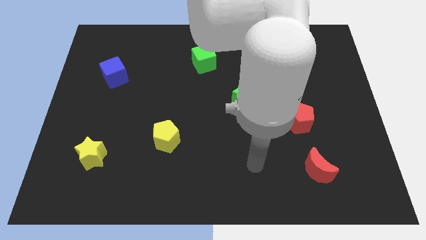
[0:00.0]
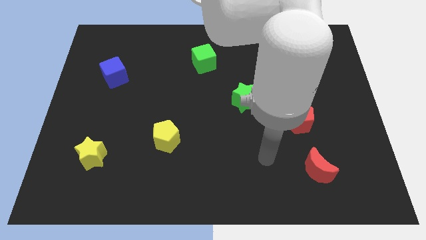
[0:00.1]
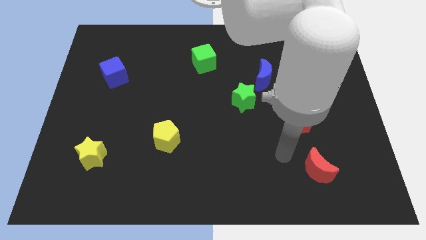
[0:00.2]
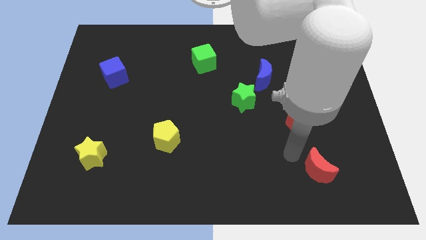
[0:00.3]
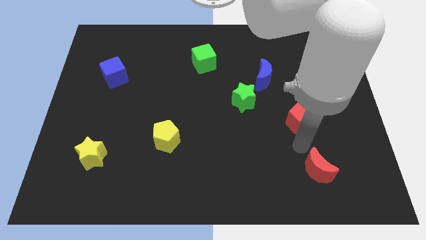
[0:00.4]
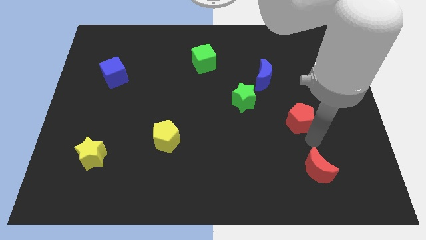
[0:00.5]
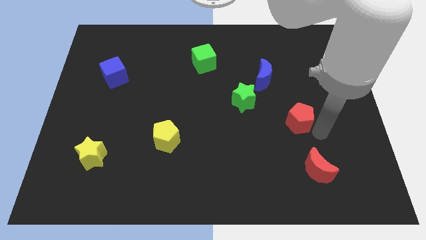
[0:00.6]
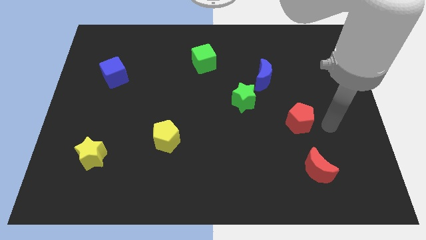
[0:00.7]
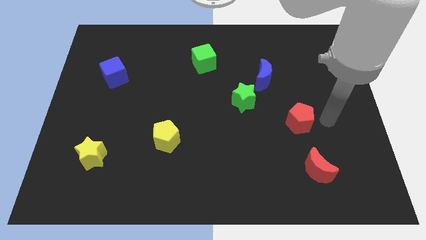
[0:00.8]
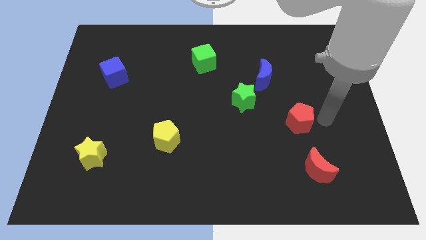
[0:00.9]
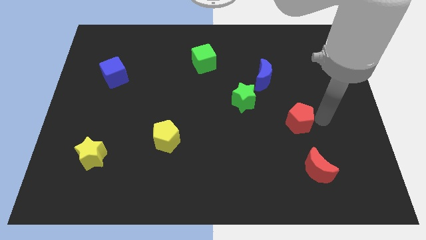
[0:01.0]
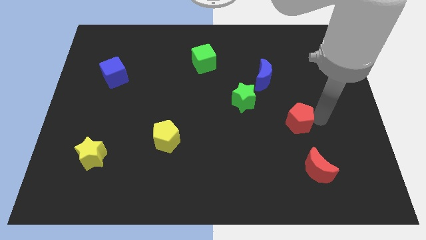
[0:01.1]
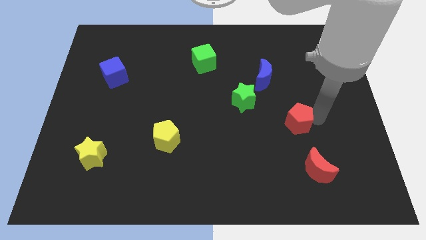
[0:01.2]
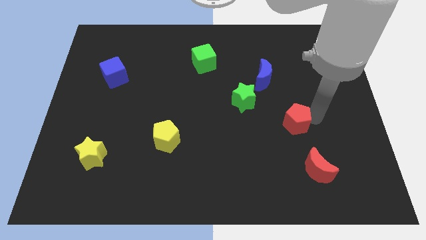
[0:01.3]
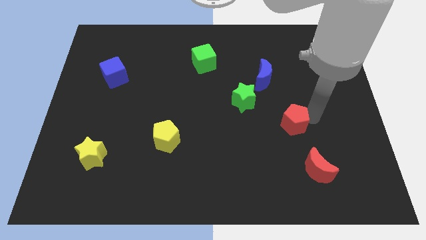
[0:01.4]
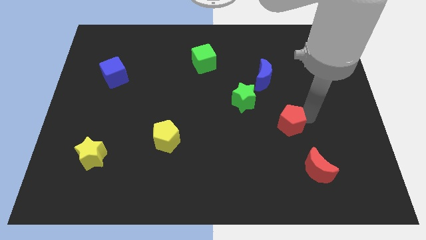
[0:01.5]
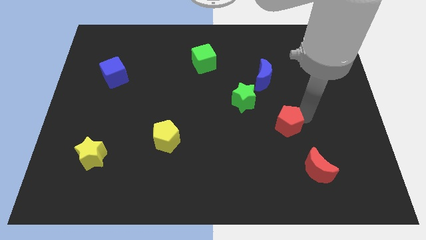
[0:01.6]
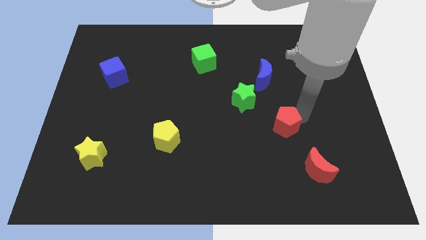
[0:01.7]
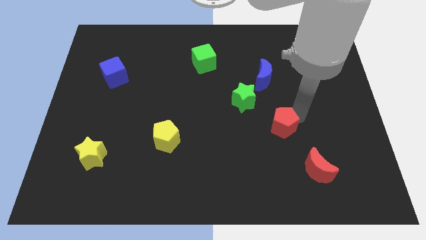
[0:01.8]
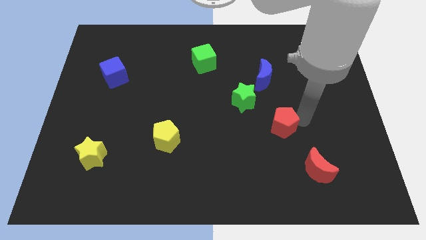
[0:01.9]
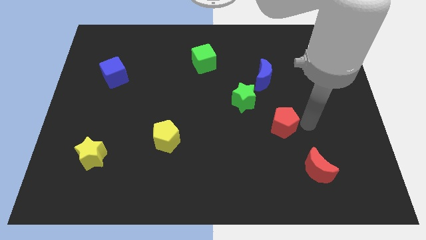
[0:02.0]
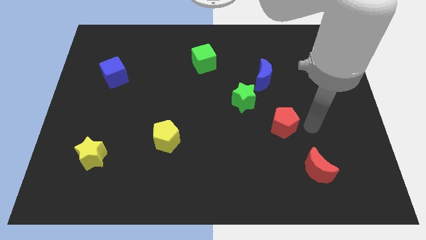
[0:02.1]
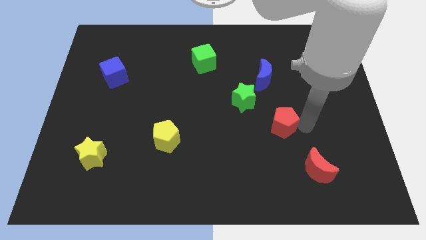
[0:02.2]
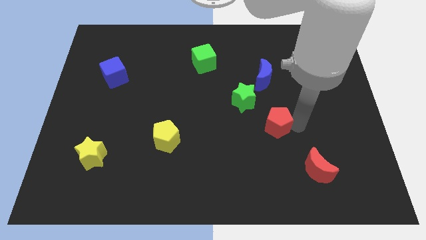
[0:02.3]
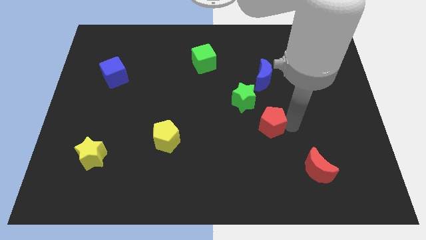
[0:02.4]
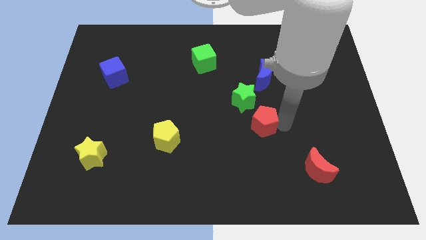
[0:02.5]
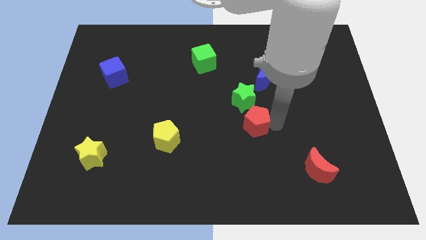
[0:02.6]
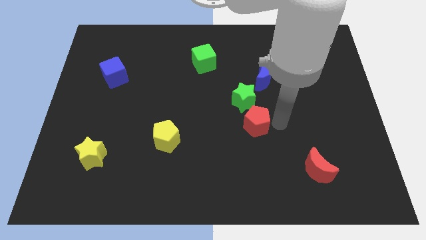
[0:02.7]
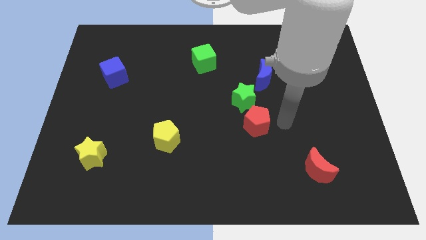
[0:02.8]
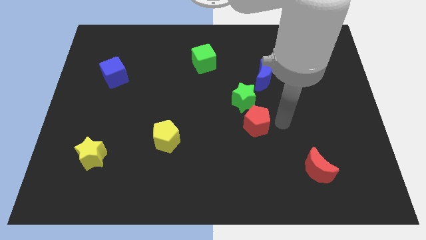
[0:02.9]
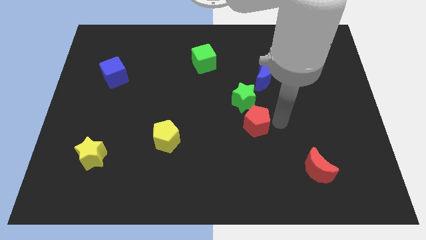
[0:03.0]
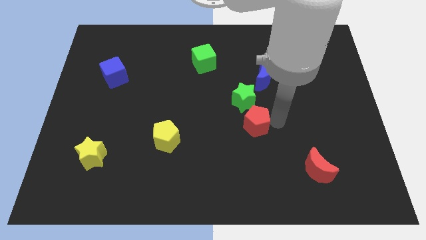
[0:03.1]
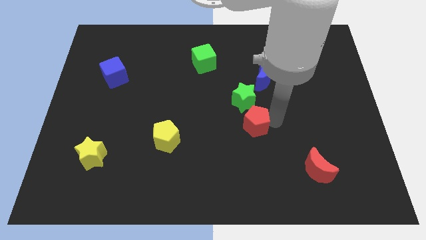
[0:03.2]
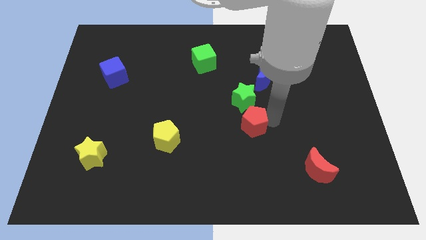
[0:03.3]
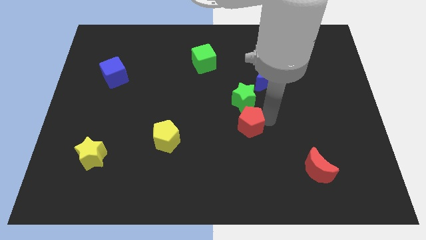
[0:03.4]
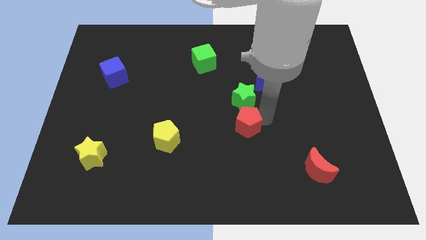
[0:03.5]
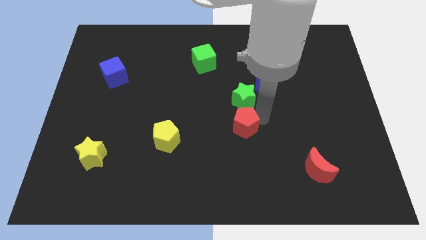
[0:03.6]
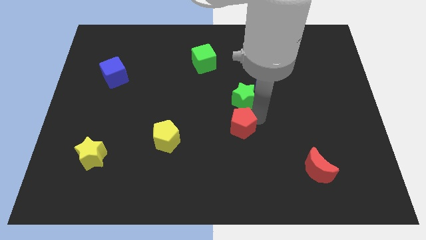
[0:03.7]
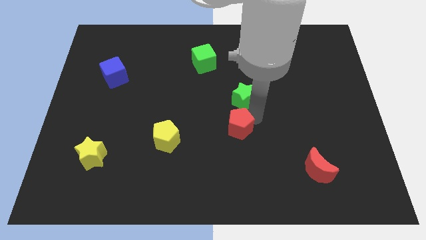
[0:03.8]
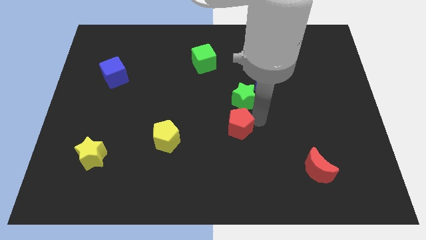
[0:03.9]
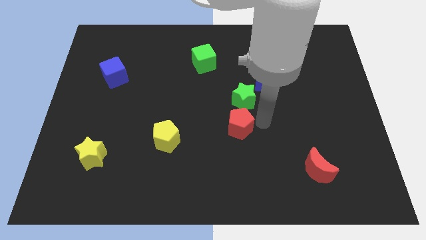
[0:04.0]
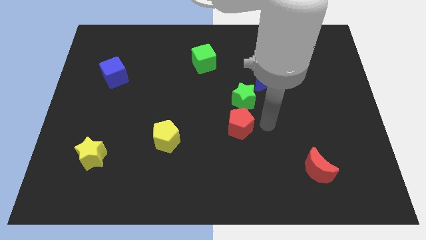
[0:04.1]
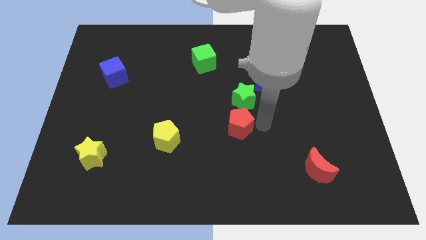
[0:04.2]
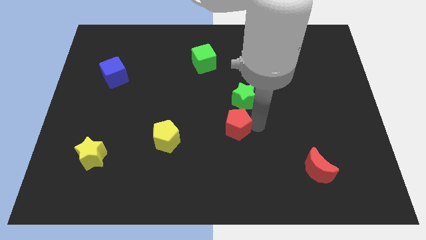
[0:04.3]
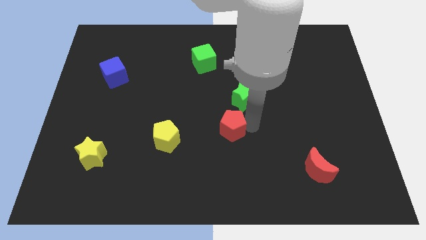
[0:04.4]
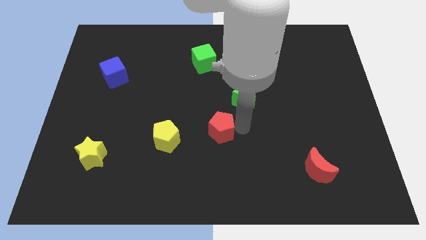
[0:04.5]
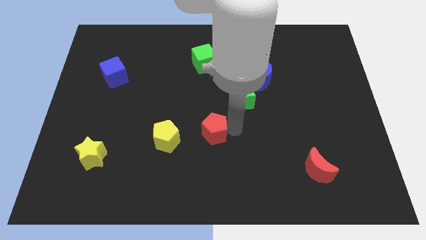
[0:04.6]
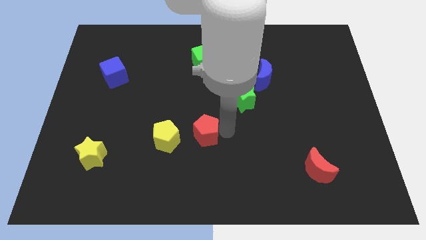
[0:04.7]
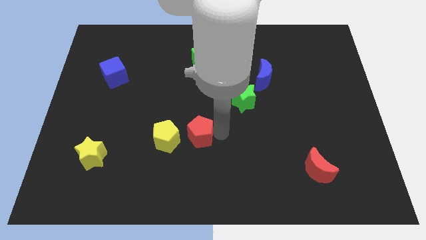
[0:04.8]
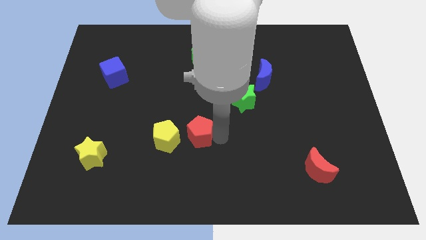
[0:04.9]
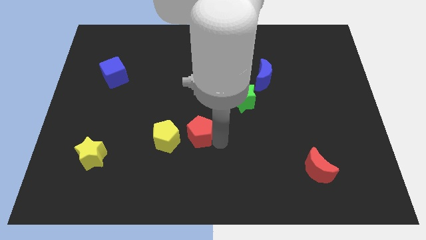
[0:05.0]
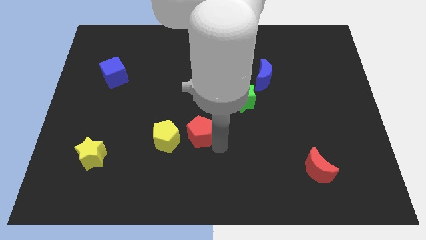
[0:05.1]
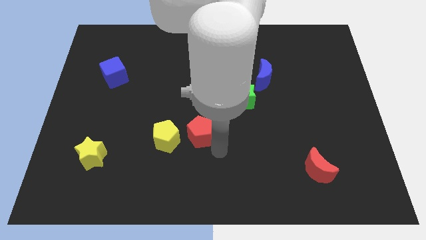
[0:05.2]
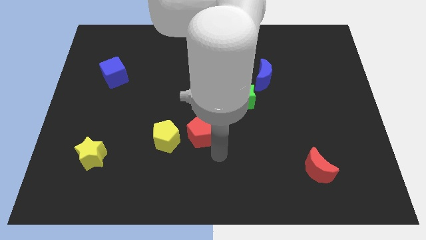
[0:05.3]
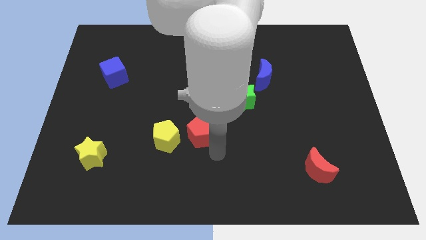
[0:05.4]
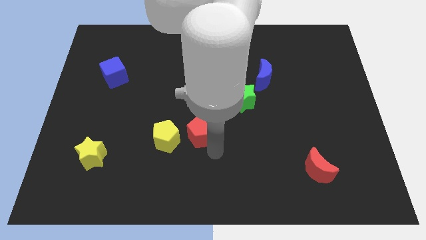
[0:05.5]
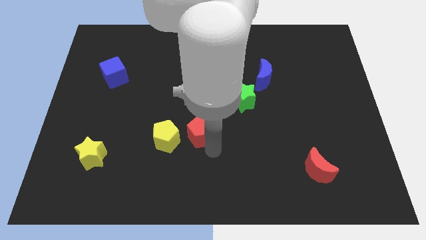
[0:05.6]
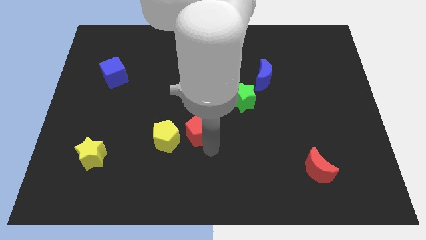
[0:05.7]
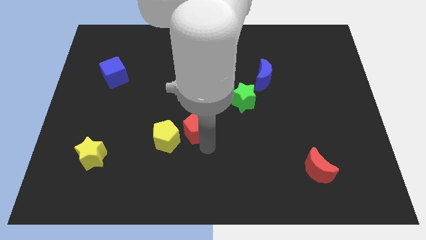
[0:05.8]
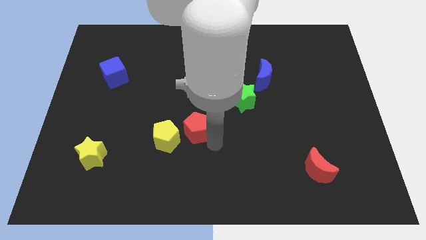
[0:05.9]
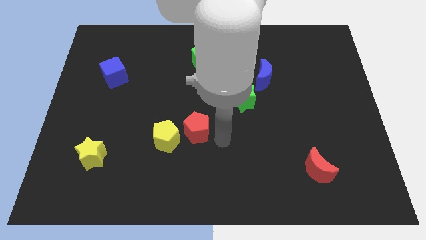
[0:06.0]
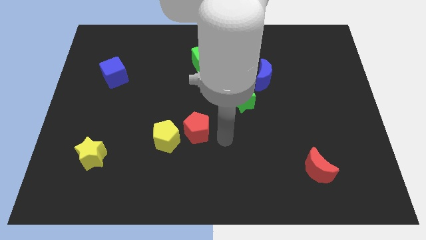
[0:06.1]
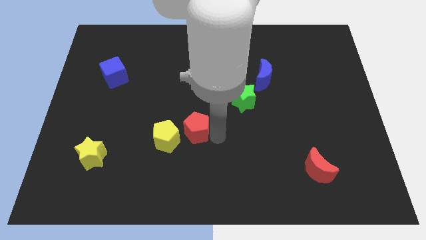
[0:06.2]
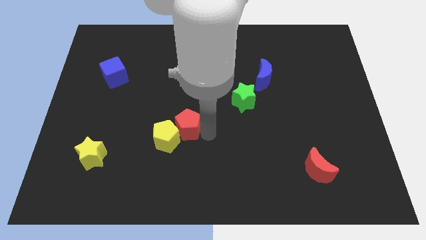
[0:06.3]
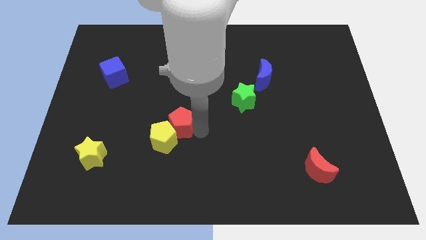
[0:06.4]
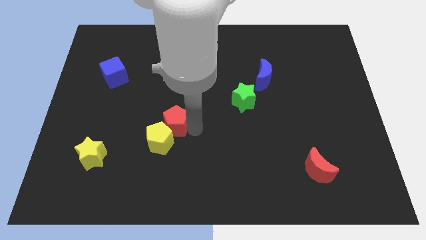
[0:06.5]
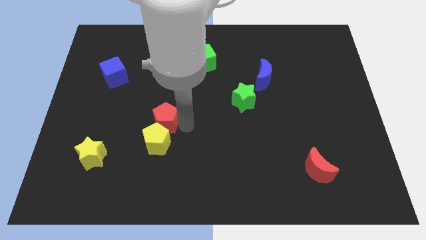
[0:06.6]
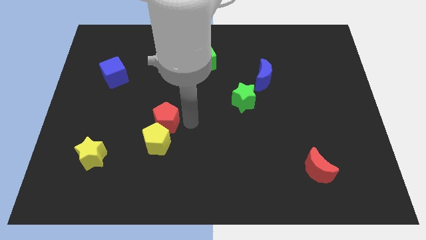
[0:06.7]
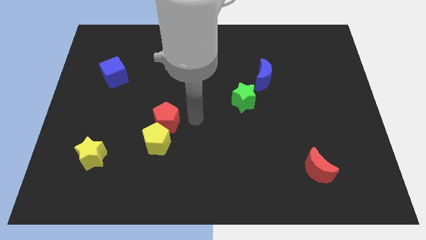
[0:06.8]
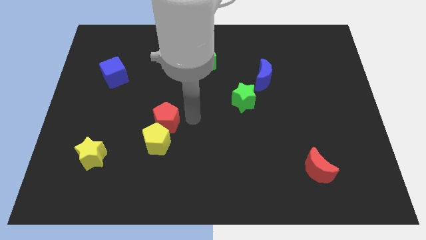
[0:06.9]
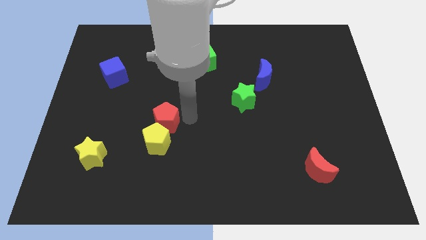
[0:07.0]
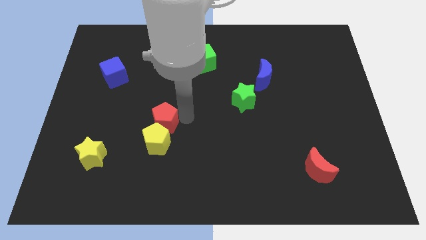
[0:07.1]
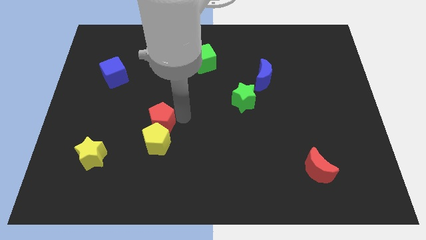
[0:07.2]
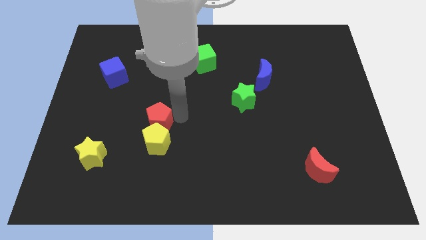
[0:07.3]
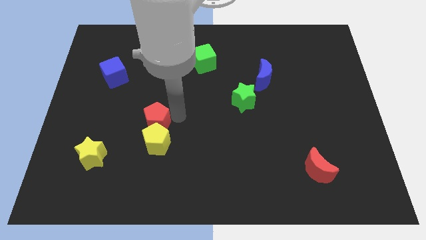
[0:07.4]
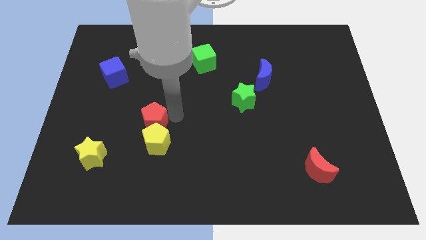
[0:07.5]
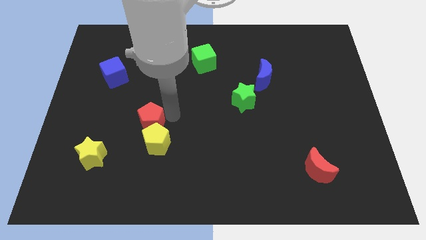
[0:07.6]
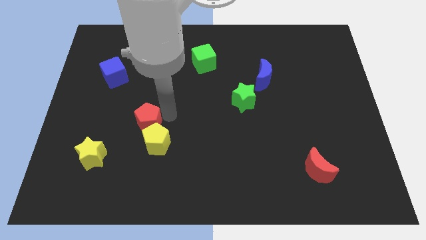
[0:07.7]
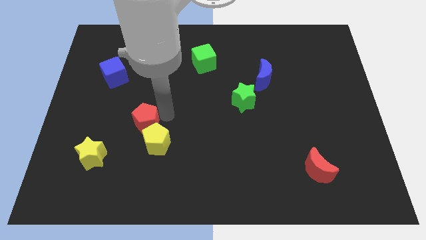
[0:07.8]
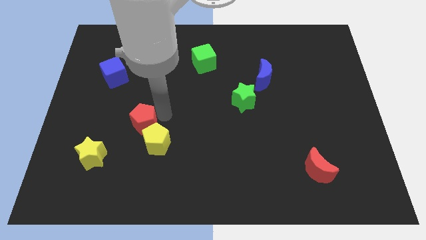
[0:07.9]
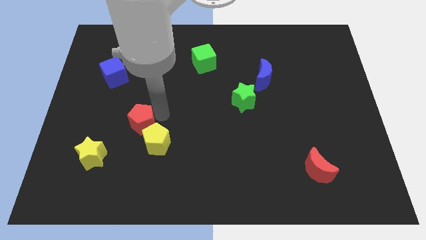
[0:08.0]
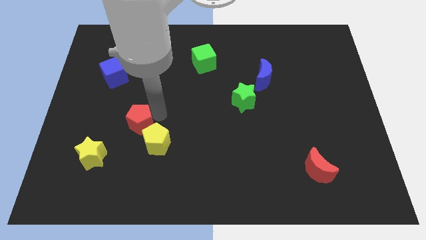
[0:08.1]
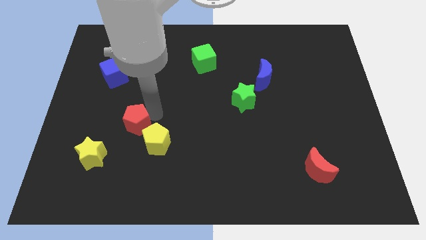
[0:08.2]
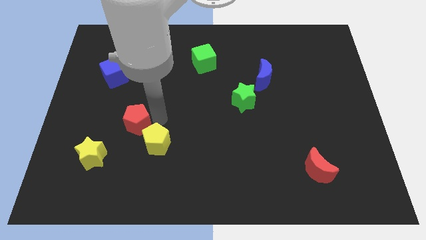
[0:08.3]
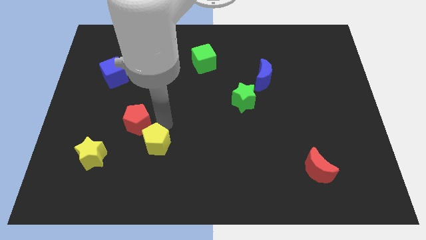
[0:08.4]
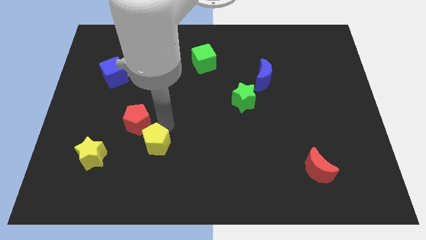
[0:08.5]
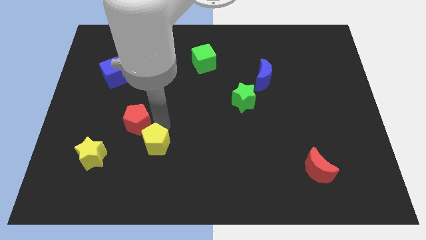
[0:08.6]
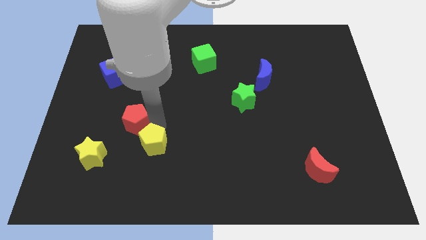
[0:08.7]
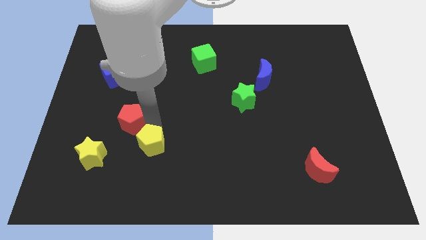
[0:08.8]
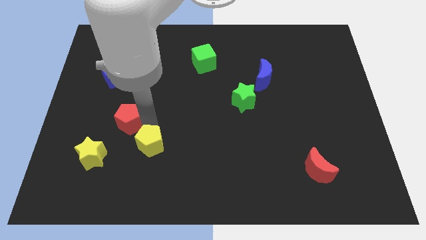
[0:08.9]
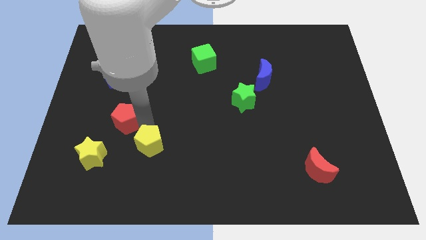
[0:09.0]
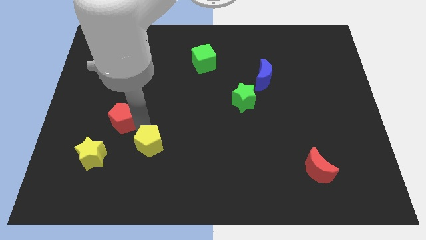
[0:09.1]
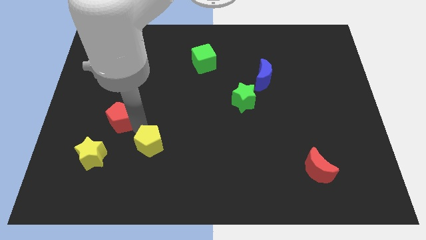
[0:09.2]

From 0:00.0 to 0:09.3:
put the red pentagon to the top side of the yellow star
